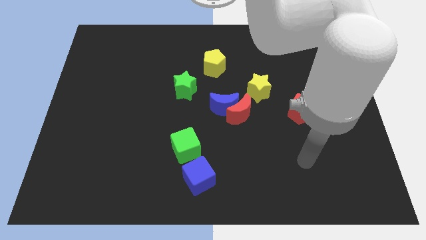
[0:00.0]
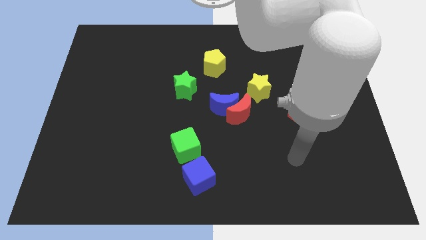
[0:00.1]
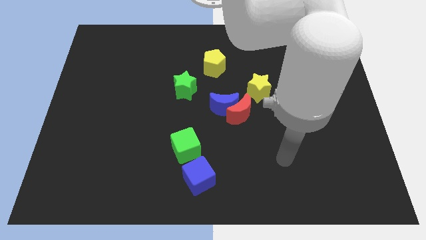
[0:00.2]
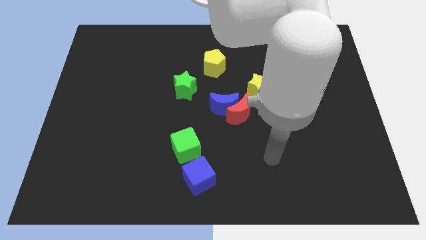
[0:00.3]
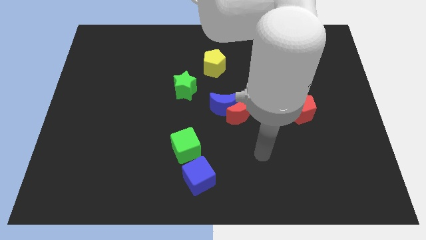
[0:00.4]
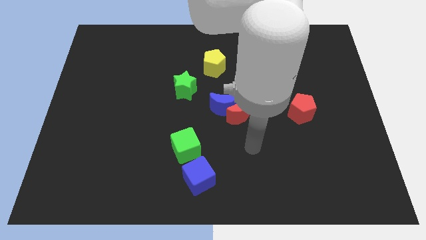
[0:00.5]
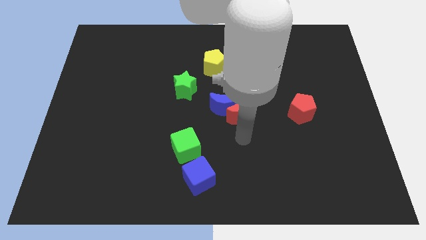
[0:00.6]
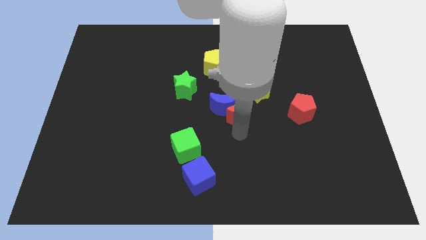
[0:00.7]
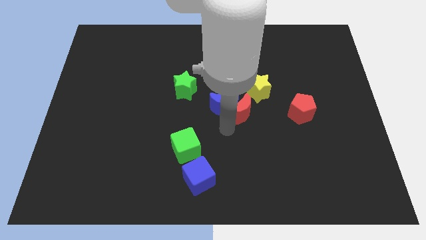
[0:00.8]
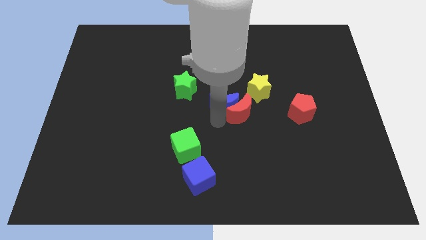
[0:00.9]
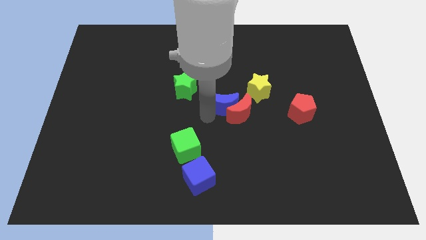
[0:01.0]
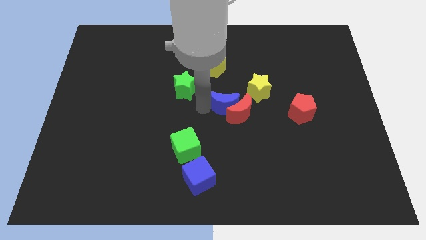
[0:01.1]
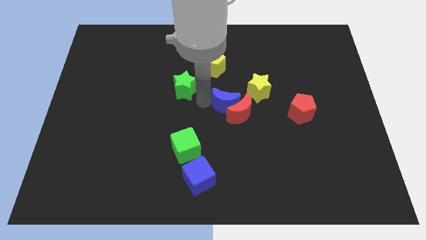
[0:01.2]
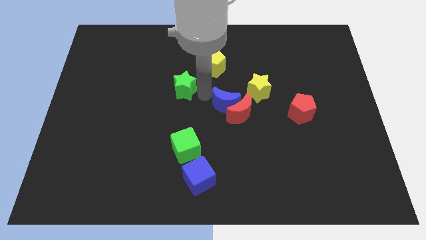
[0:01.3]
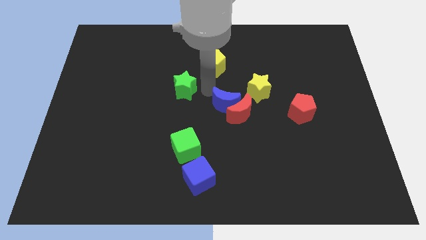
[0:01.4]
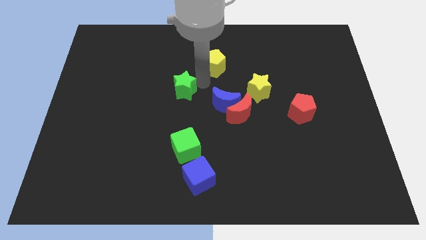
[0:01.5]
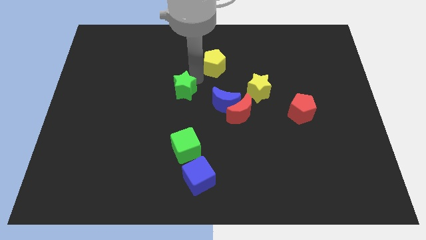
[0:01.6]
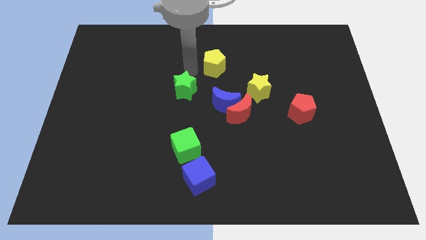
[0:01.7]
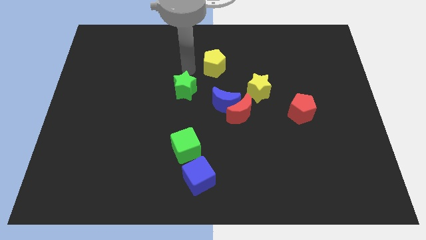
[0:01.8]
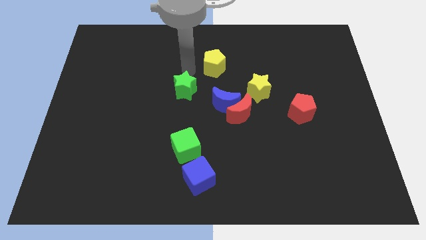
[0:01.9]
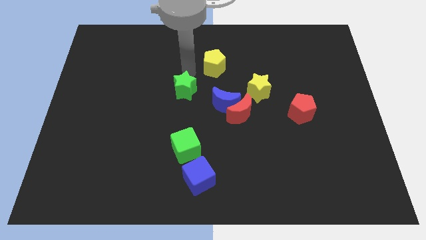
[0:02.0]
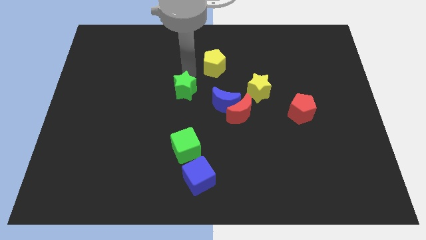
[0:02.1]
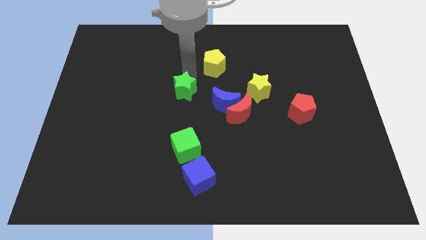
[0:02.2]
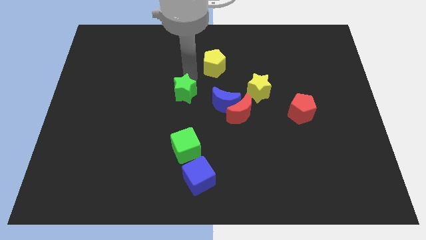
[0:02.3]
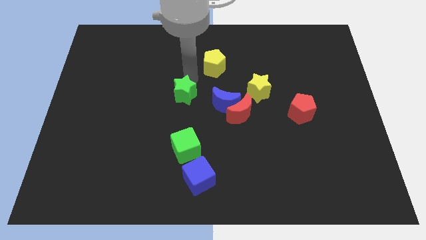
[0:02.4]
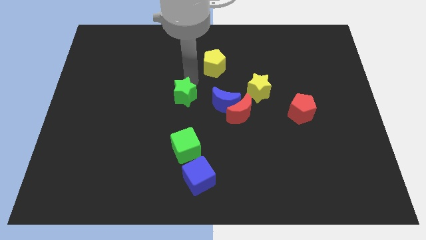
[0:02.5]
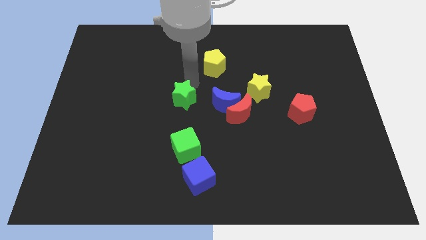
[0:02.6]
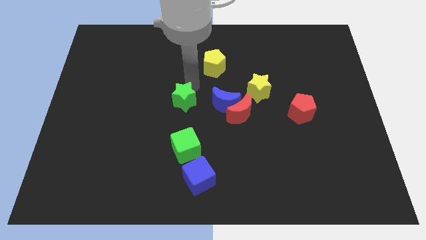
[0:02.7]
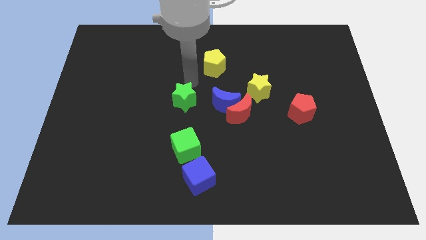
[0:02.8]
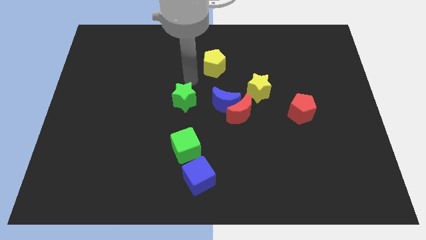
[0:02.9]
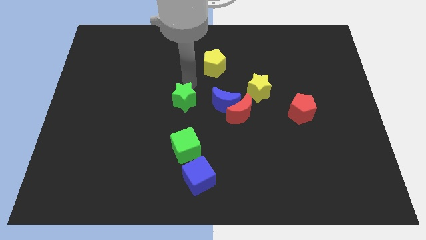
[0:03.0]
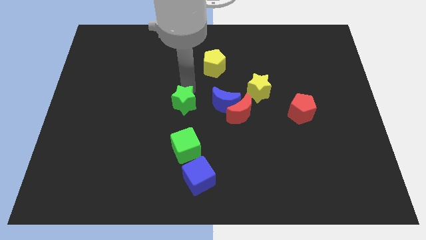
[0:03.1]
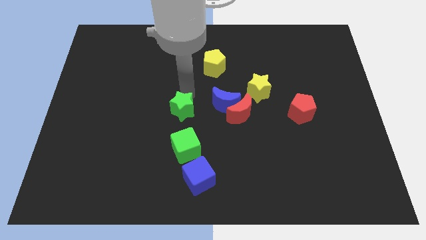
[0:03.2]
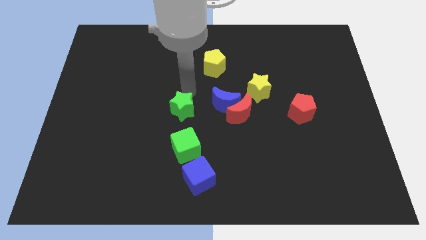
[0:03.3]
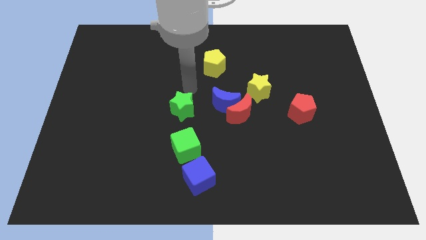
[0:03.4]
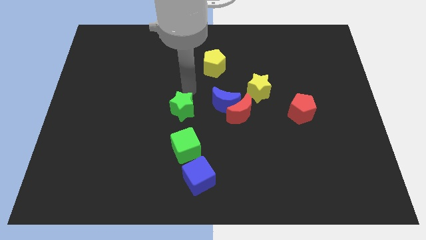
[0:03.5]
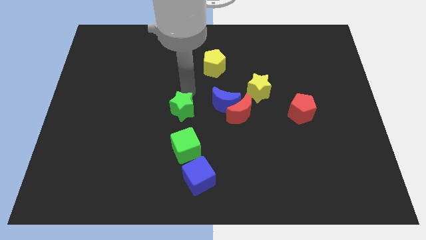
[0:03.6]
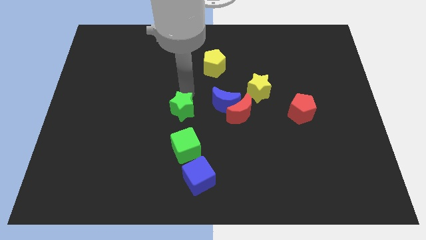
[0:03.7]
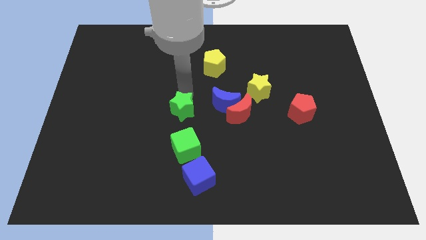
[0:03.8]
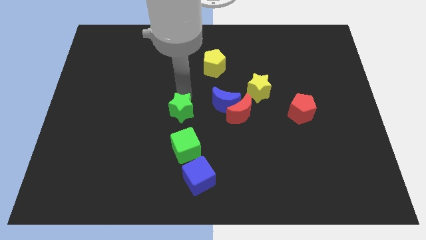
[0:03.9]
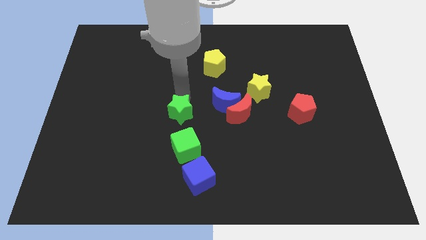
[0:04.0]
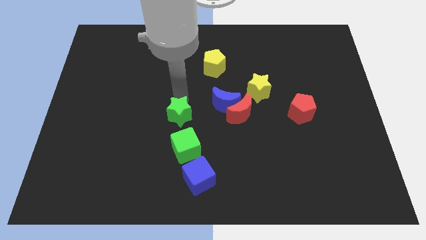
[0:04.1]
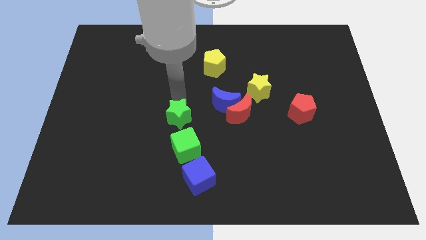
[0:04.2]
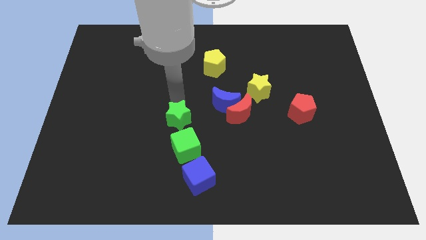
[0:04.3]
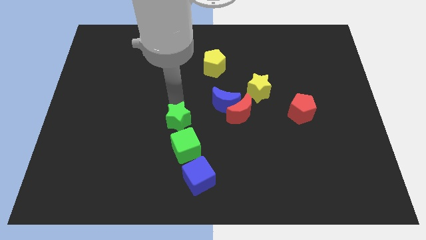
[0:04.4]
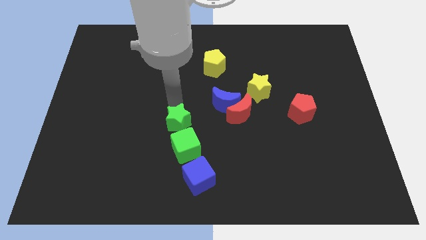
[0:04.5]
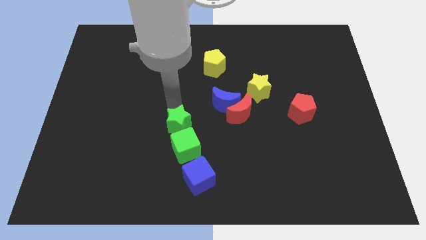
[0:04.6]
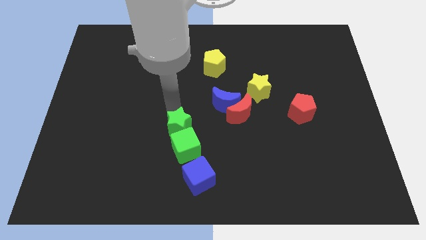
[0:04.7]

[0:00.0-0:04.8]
put the green star towards the green cube

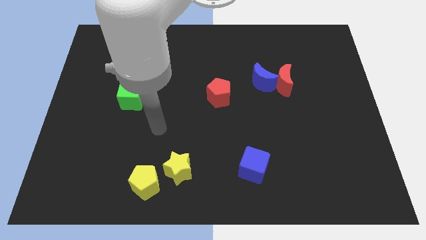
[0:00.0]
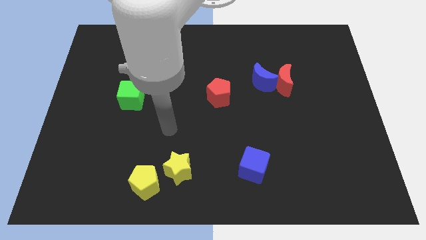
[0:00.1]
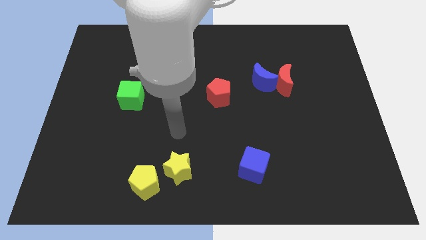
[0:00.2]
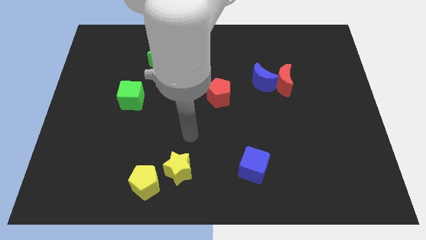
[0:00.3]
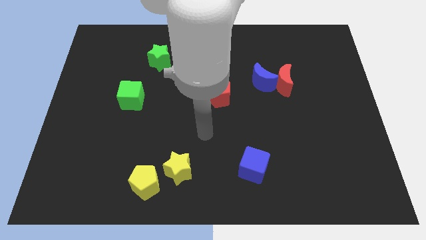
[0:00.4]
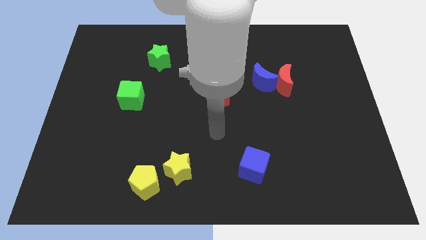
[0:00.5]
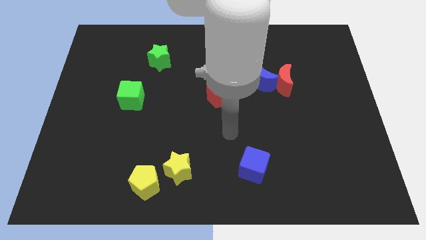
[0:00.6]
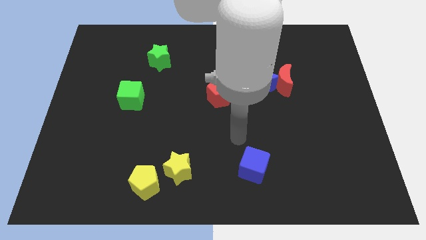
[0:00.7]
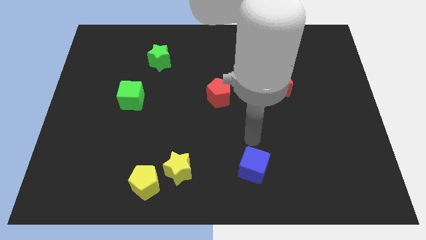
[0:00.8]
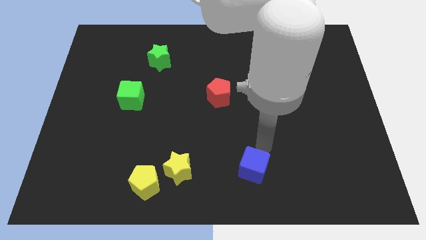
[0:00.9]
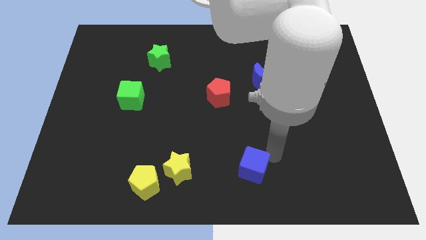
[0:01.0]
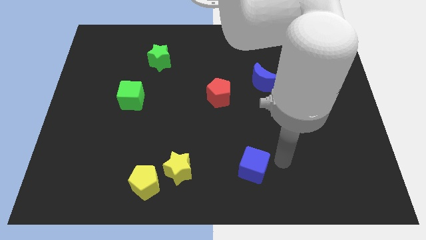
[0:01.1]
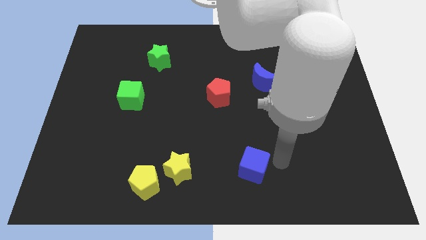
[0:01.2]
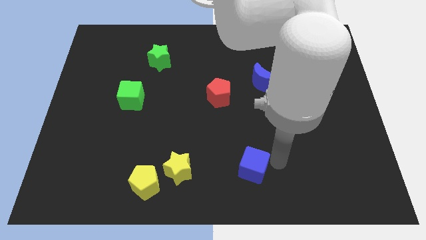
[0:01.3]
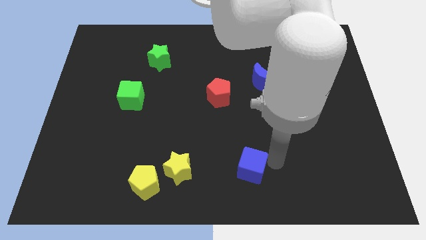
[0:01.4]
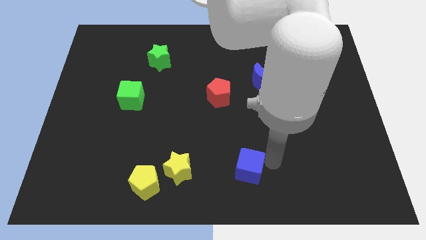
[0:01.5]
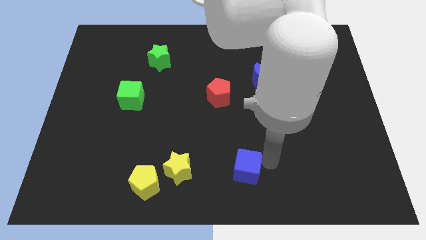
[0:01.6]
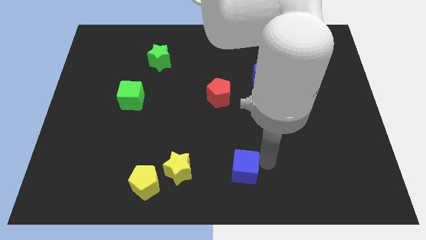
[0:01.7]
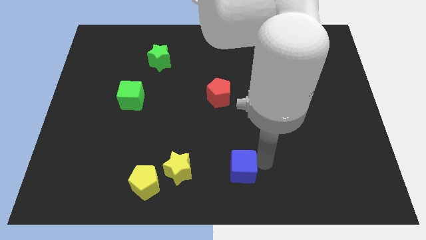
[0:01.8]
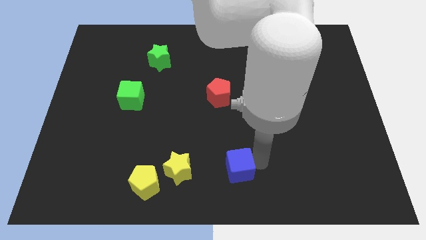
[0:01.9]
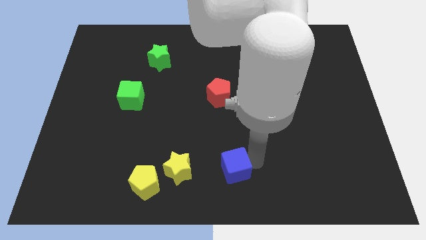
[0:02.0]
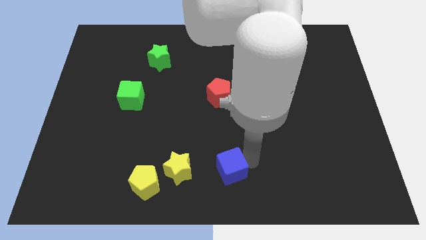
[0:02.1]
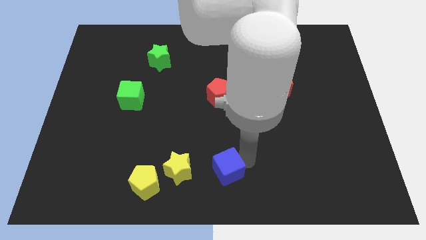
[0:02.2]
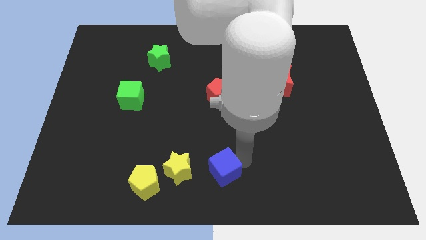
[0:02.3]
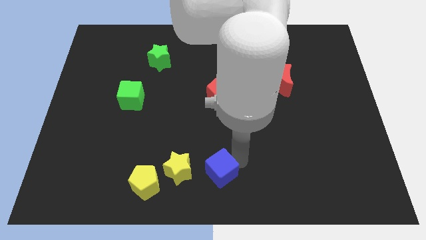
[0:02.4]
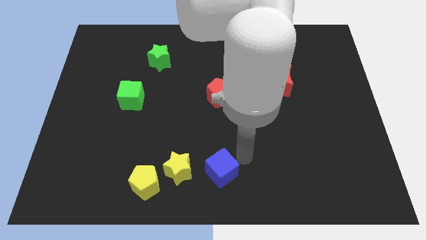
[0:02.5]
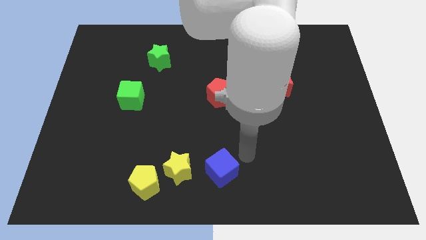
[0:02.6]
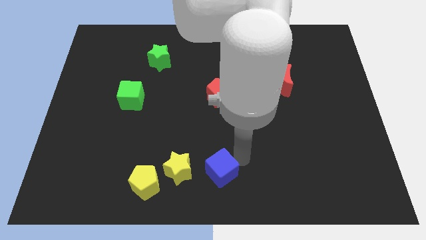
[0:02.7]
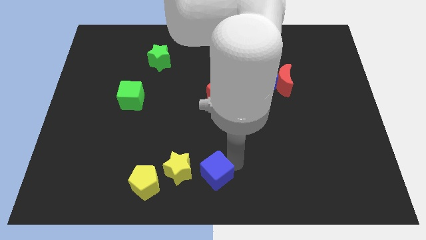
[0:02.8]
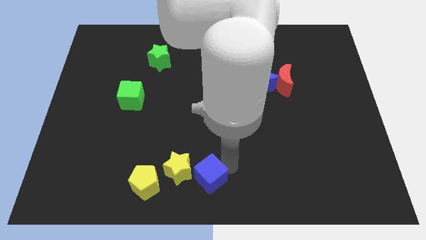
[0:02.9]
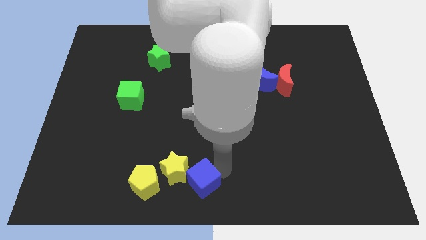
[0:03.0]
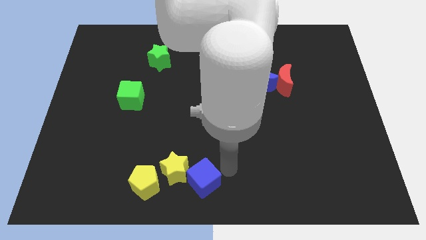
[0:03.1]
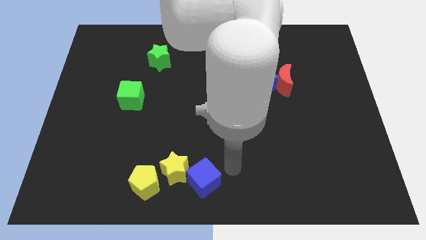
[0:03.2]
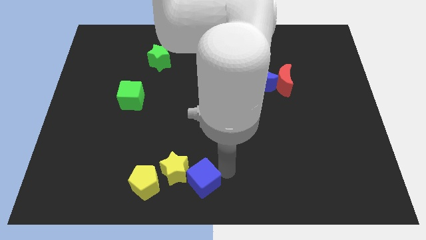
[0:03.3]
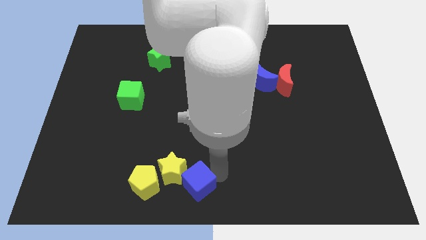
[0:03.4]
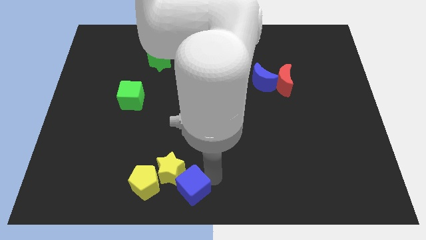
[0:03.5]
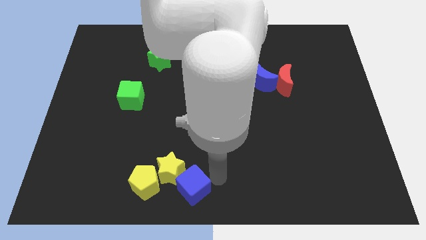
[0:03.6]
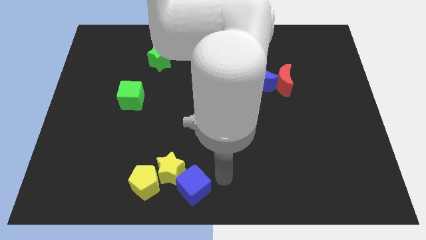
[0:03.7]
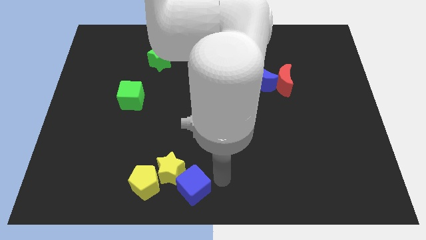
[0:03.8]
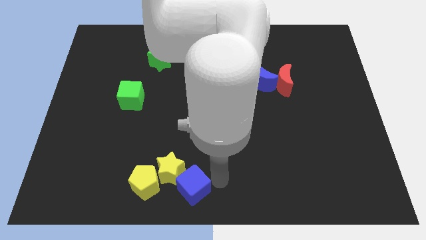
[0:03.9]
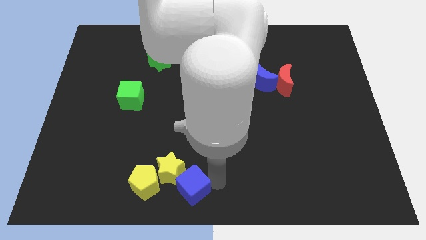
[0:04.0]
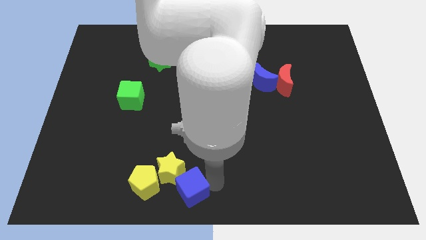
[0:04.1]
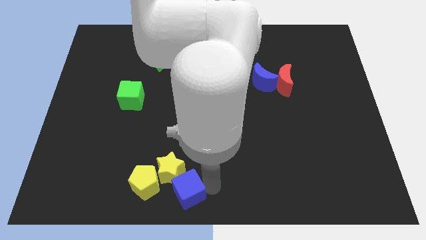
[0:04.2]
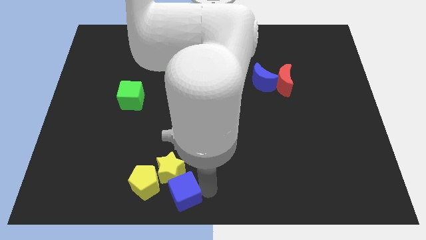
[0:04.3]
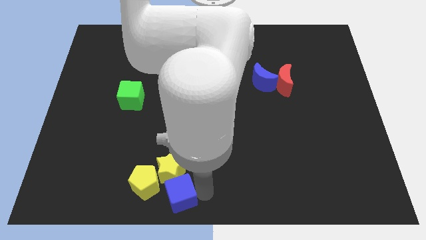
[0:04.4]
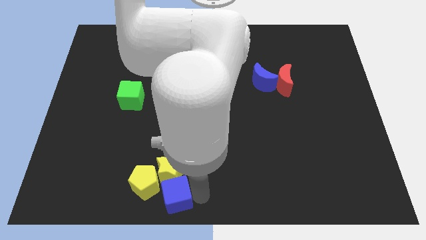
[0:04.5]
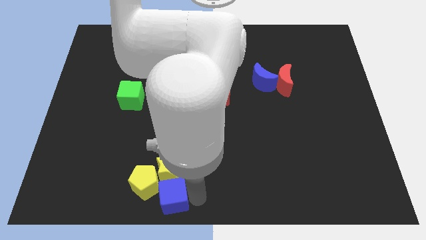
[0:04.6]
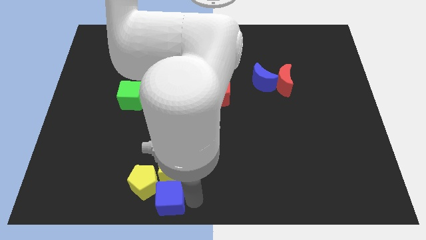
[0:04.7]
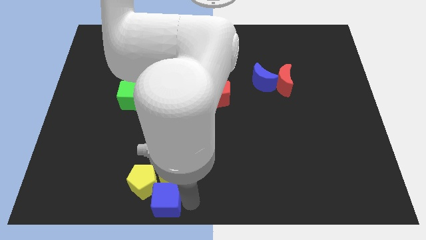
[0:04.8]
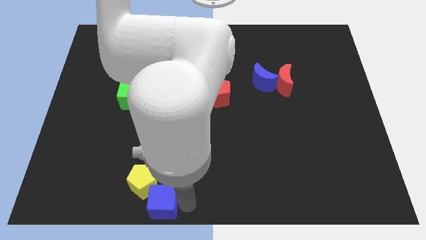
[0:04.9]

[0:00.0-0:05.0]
push the blue cube towards the yellow pentagon
